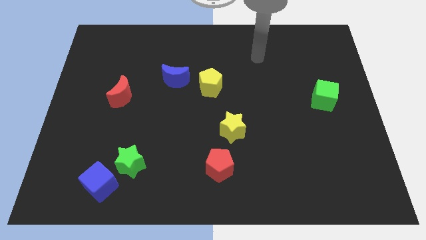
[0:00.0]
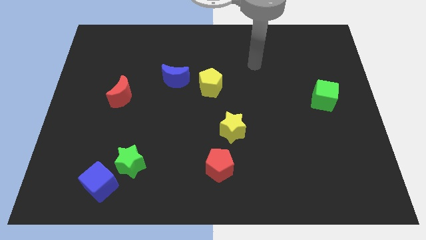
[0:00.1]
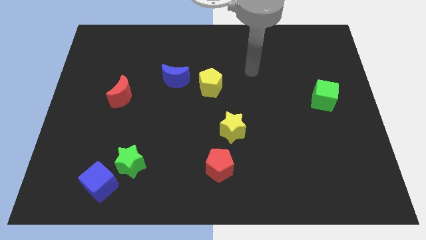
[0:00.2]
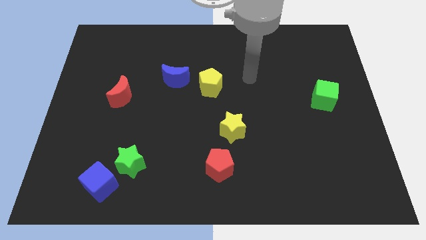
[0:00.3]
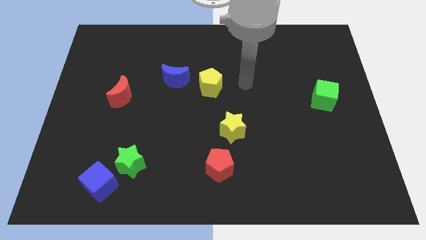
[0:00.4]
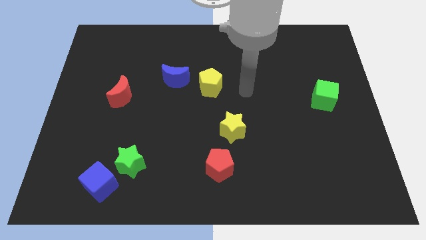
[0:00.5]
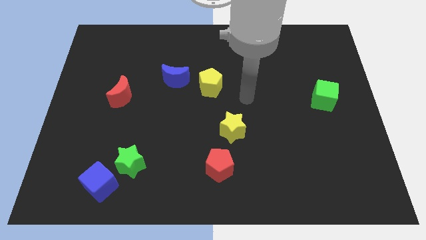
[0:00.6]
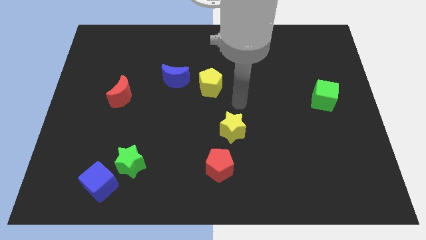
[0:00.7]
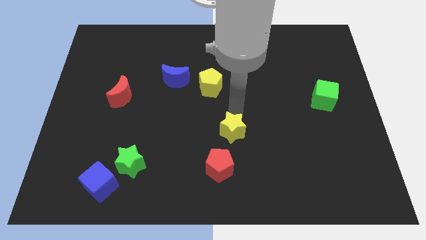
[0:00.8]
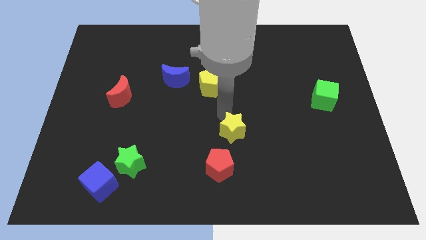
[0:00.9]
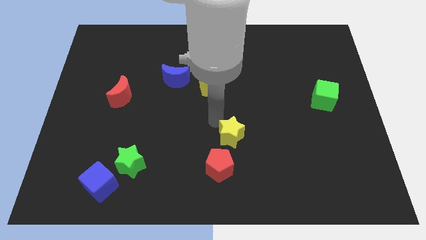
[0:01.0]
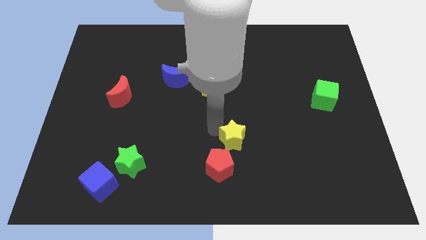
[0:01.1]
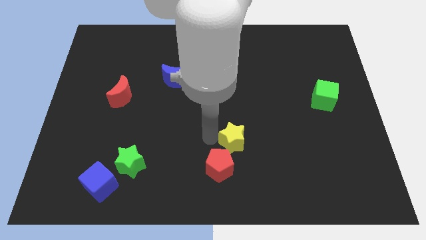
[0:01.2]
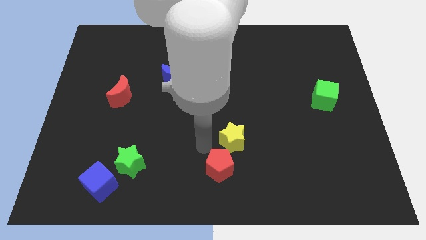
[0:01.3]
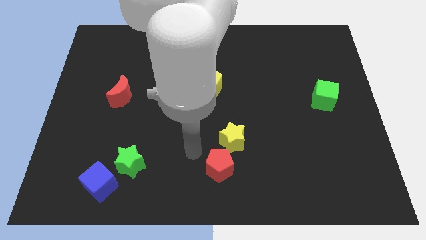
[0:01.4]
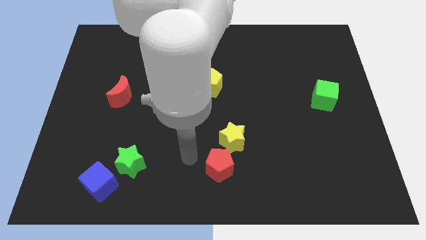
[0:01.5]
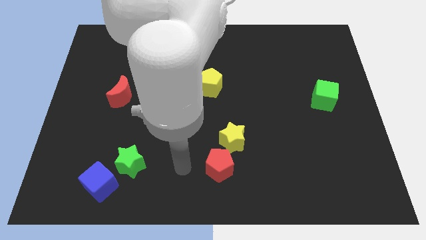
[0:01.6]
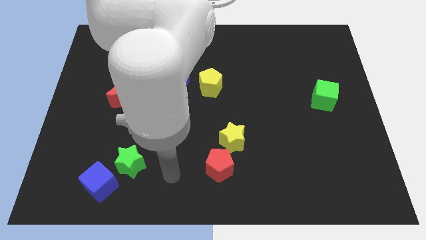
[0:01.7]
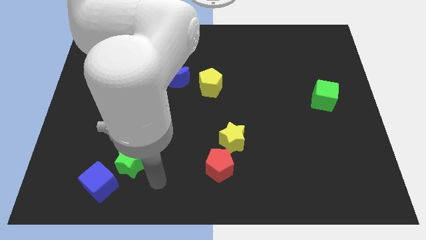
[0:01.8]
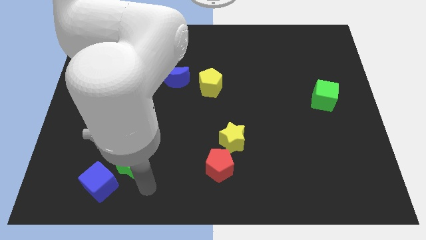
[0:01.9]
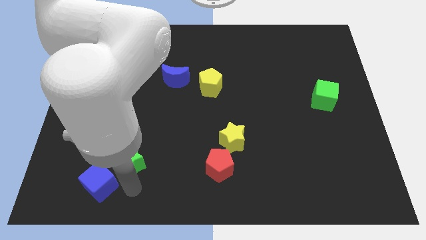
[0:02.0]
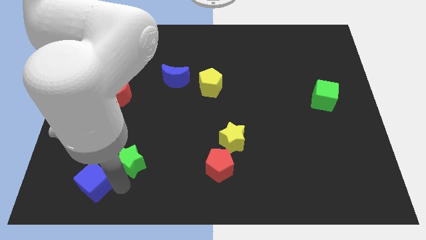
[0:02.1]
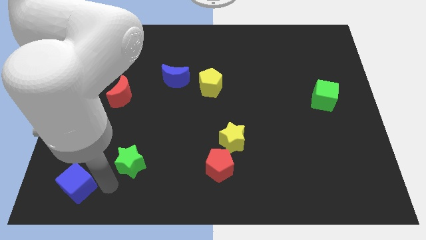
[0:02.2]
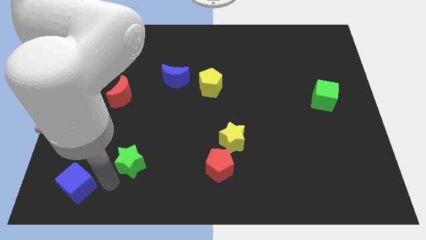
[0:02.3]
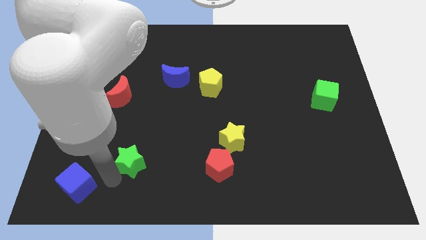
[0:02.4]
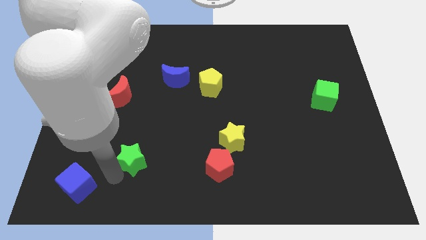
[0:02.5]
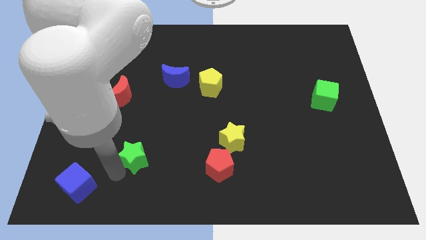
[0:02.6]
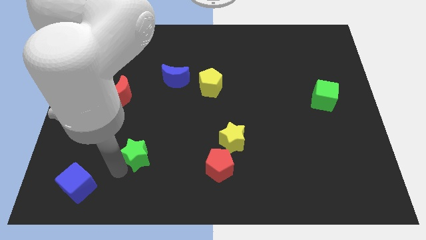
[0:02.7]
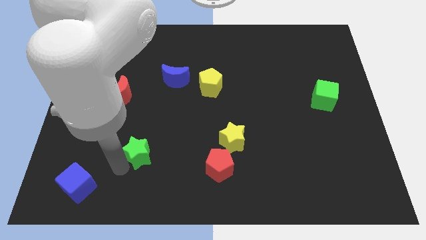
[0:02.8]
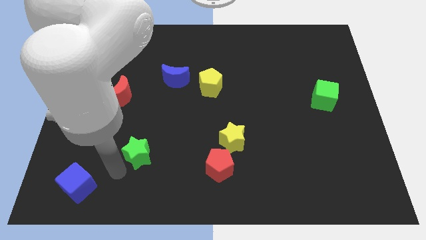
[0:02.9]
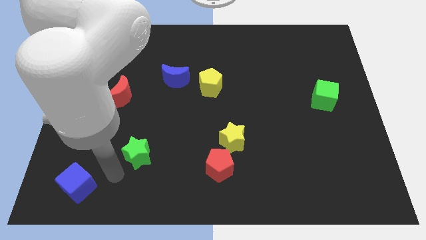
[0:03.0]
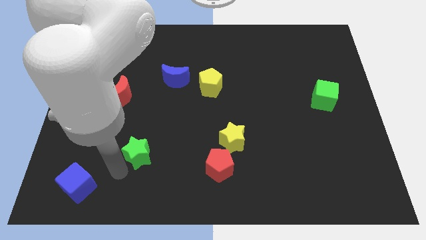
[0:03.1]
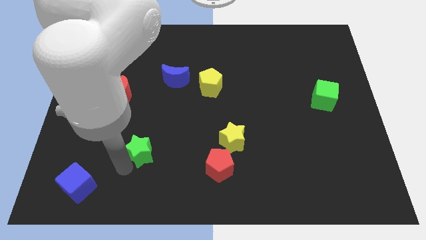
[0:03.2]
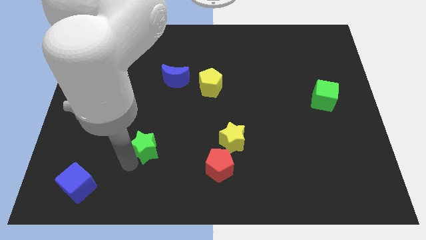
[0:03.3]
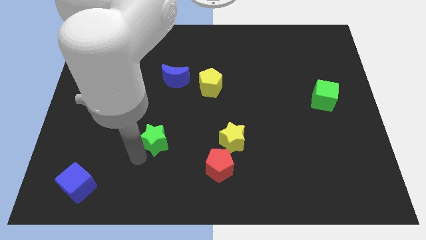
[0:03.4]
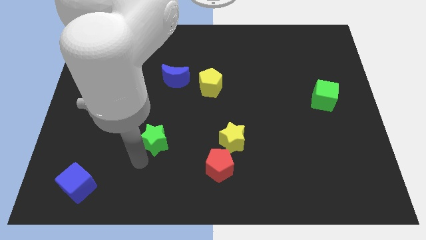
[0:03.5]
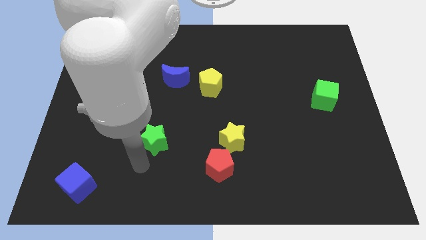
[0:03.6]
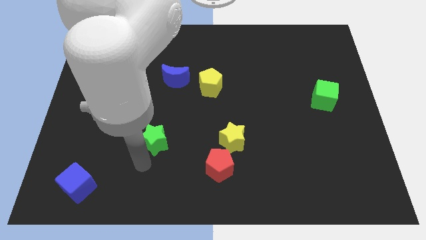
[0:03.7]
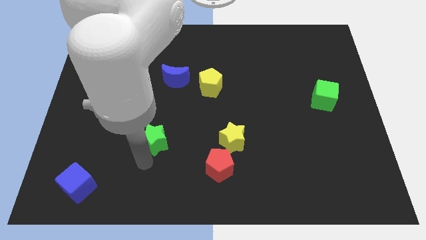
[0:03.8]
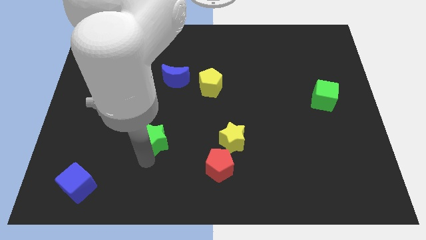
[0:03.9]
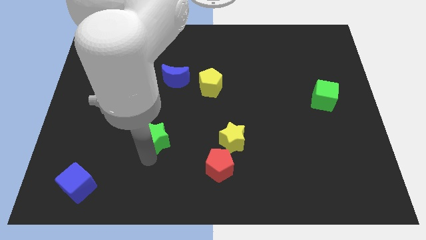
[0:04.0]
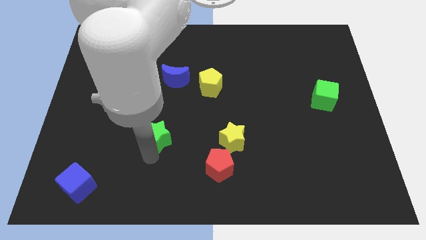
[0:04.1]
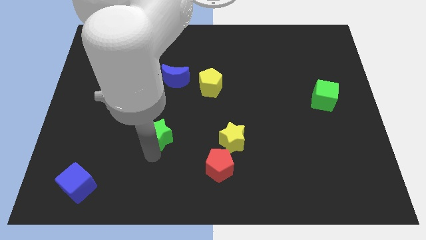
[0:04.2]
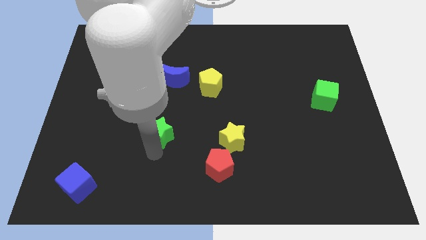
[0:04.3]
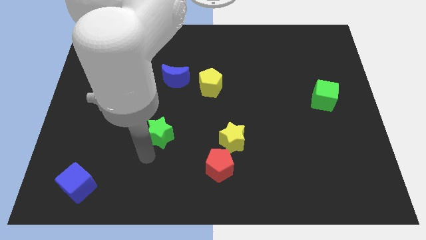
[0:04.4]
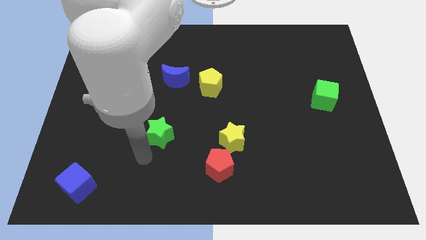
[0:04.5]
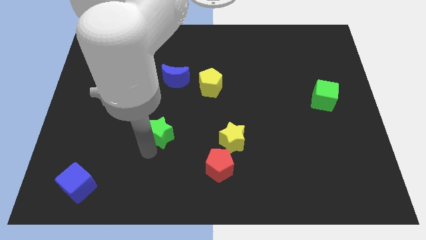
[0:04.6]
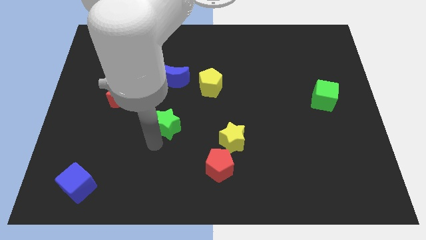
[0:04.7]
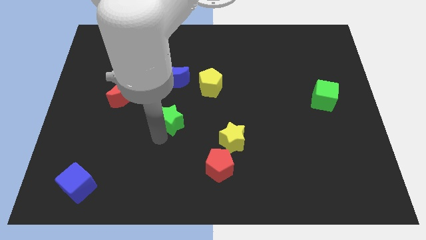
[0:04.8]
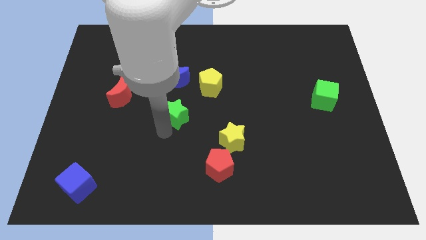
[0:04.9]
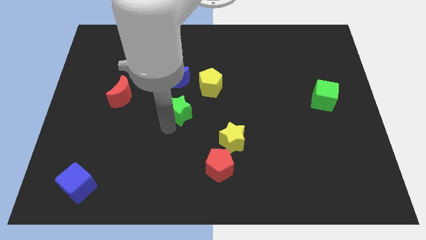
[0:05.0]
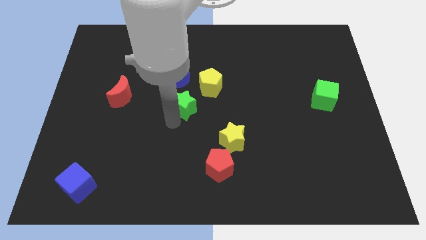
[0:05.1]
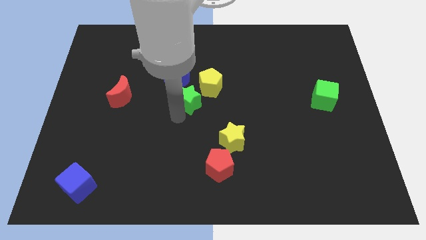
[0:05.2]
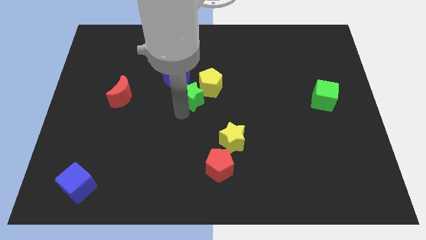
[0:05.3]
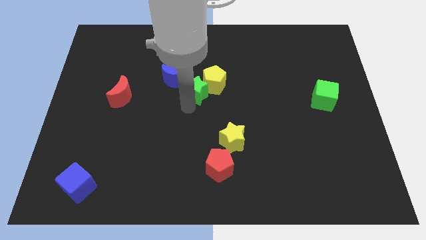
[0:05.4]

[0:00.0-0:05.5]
push the green star to the right of the blue moon

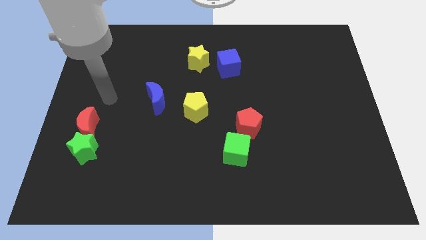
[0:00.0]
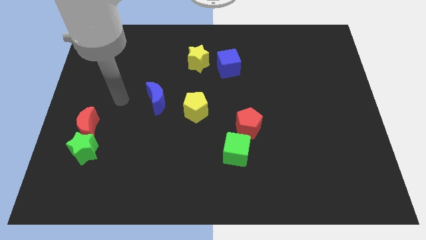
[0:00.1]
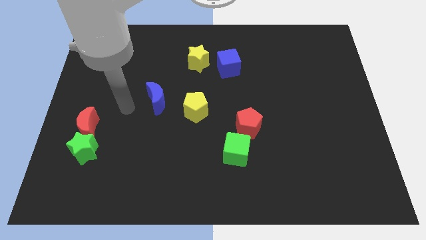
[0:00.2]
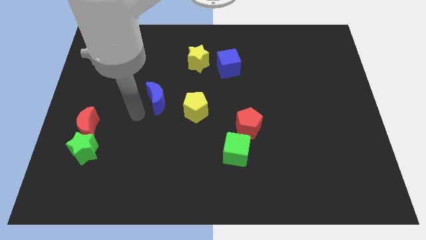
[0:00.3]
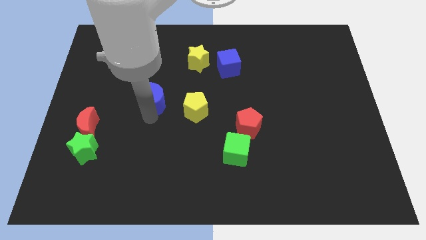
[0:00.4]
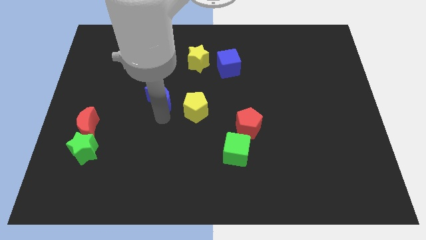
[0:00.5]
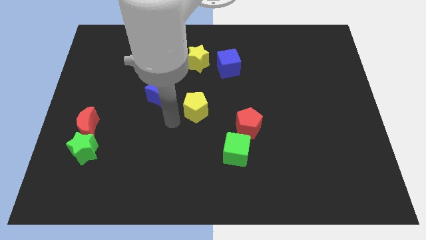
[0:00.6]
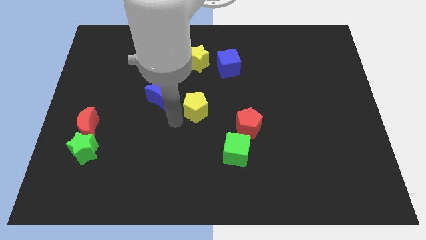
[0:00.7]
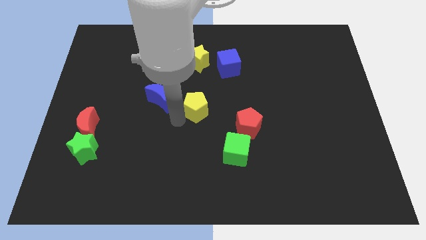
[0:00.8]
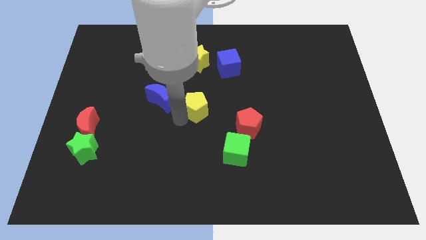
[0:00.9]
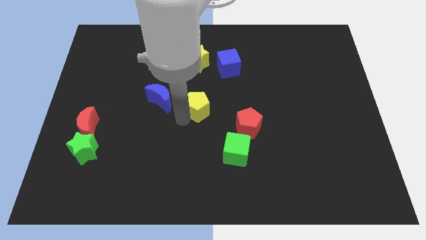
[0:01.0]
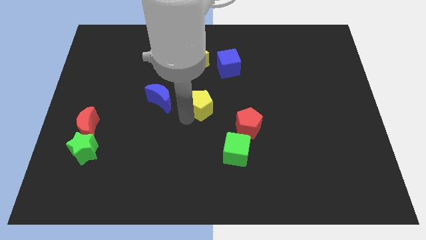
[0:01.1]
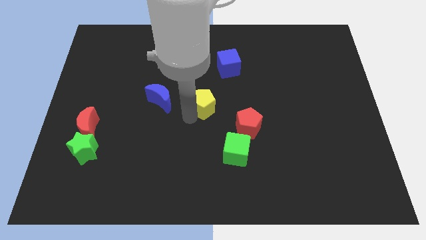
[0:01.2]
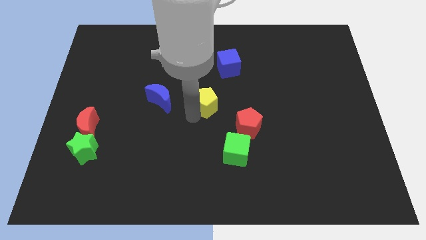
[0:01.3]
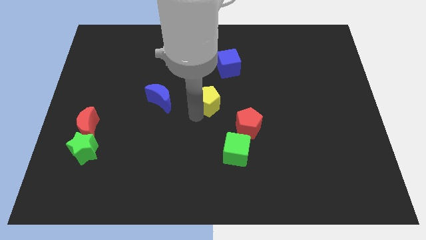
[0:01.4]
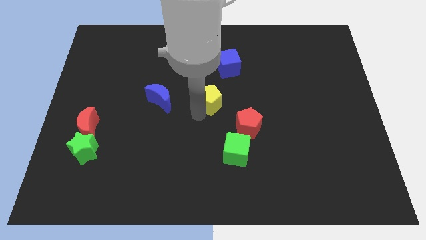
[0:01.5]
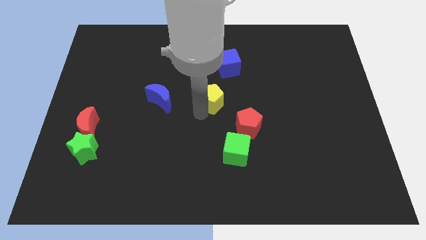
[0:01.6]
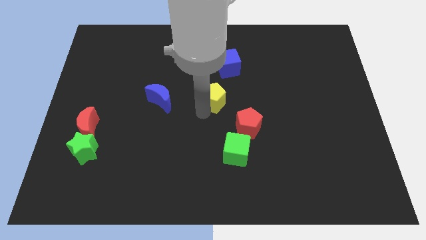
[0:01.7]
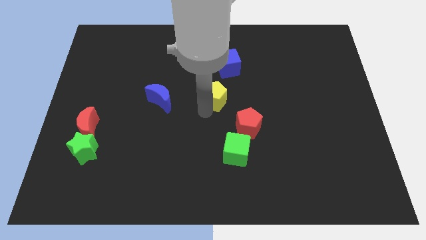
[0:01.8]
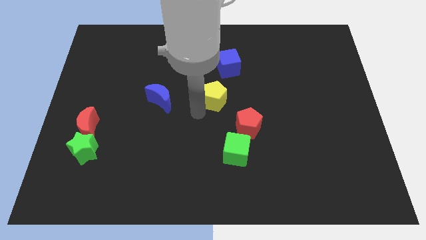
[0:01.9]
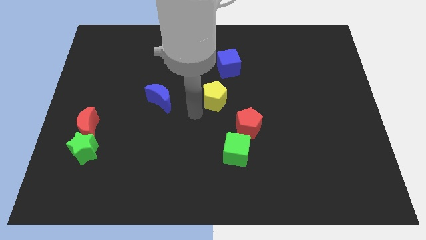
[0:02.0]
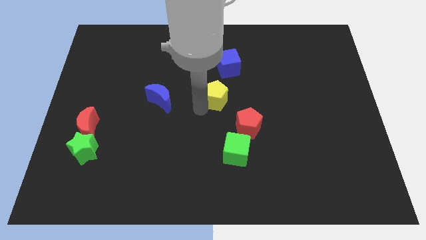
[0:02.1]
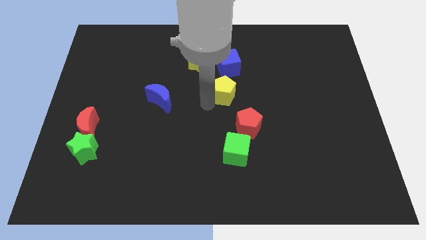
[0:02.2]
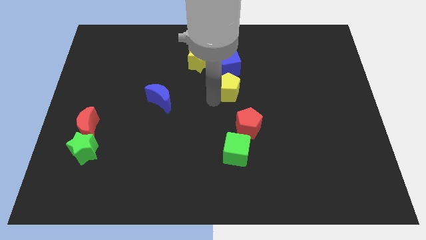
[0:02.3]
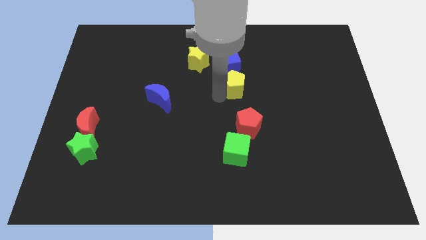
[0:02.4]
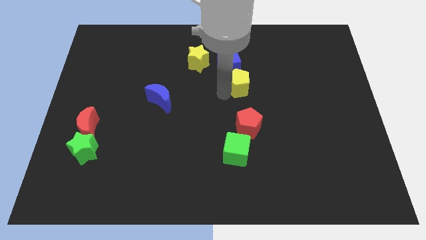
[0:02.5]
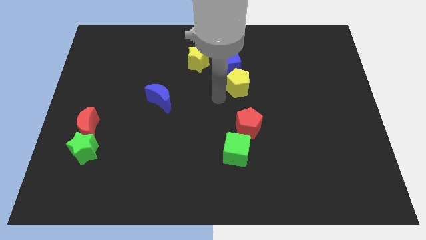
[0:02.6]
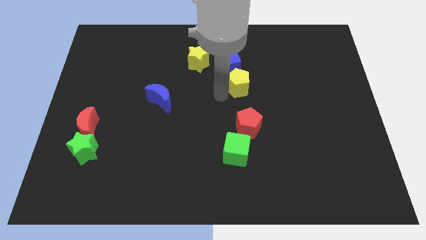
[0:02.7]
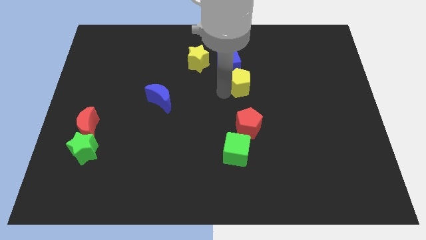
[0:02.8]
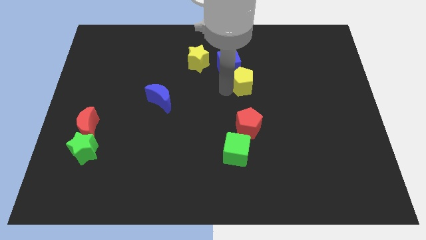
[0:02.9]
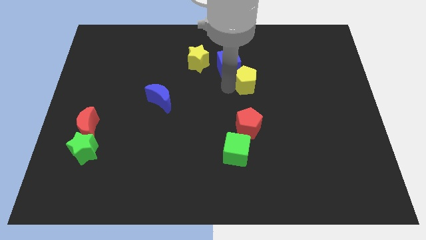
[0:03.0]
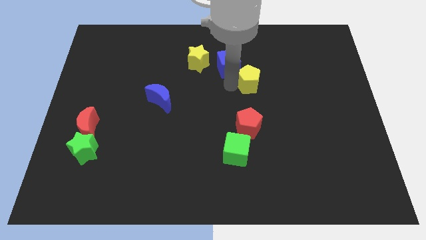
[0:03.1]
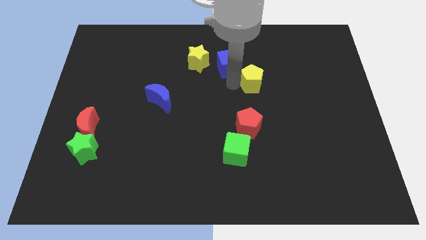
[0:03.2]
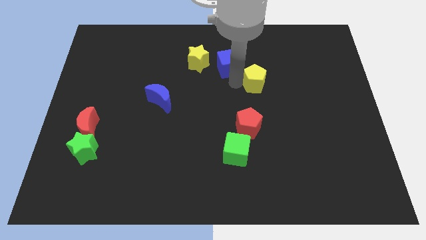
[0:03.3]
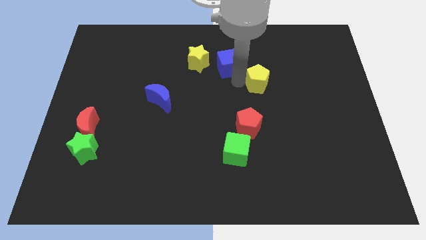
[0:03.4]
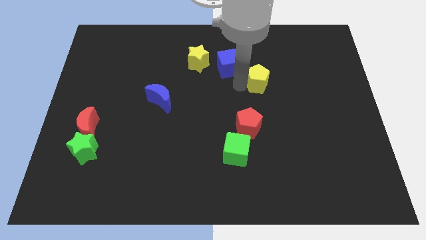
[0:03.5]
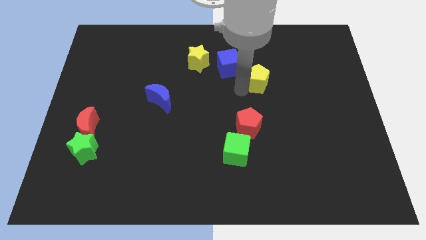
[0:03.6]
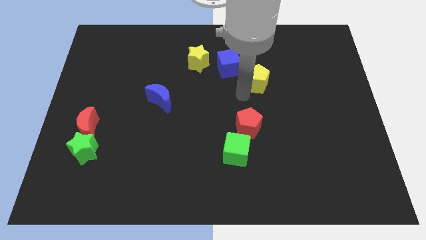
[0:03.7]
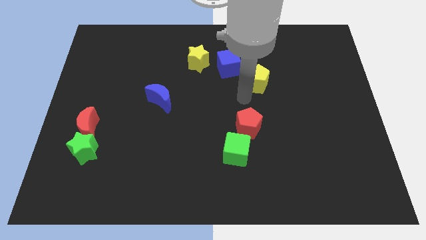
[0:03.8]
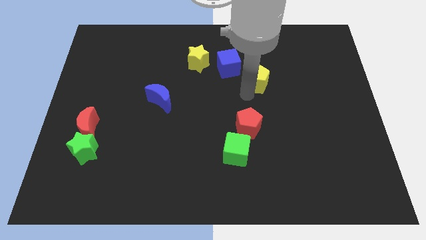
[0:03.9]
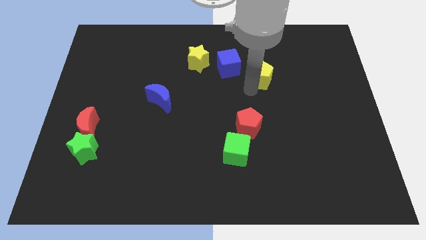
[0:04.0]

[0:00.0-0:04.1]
put the yellow pentagon to the right side of the blue cube
